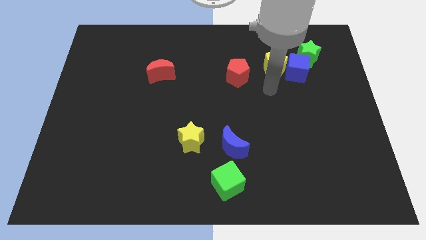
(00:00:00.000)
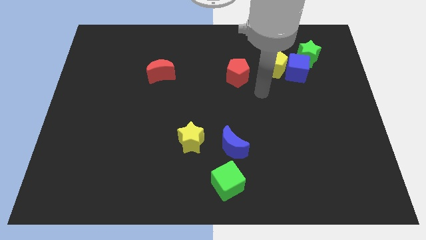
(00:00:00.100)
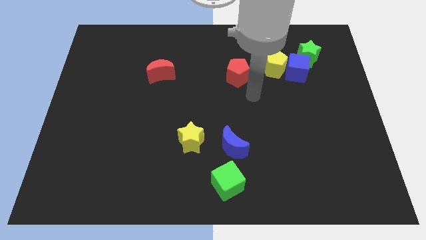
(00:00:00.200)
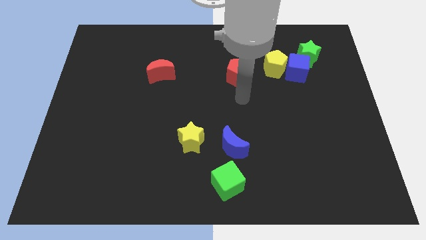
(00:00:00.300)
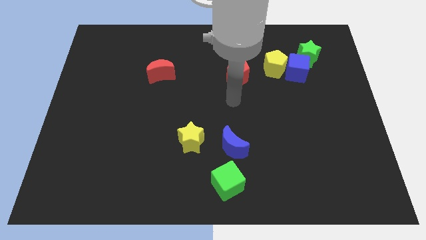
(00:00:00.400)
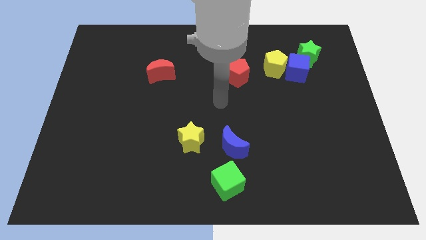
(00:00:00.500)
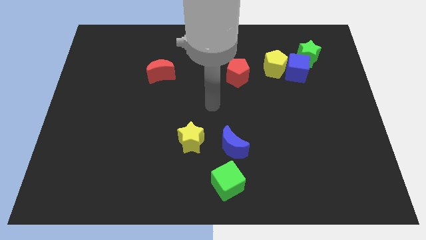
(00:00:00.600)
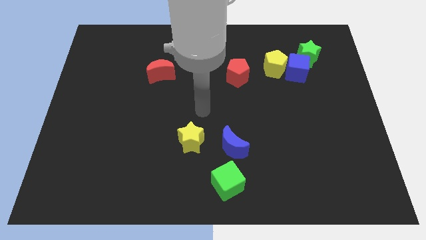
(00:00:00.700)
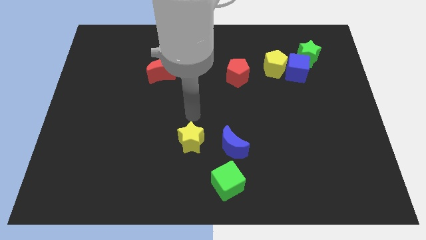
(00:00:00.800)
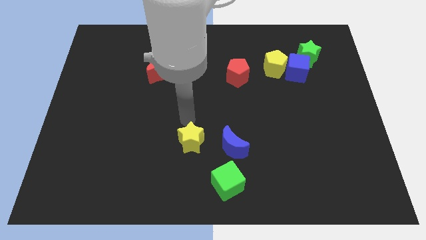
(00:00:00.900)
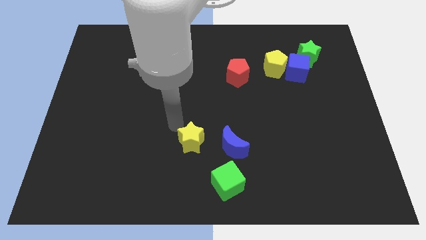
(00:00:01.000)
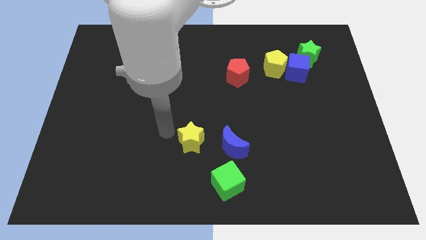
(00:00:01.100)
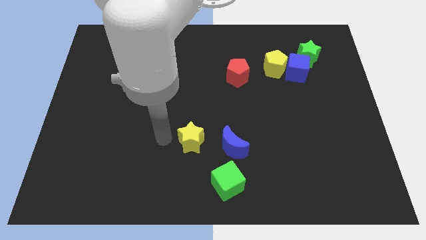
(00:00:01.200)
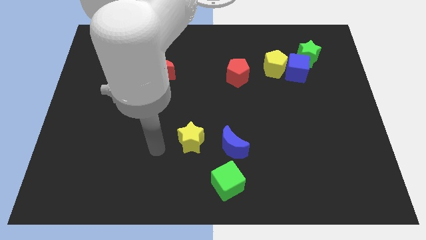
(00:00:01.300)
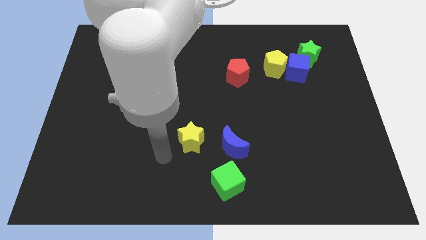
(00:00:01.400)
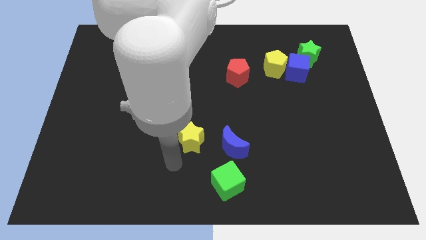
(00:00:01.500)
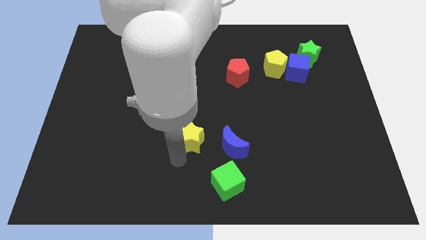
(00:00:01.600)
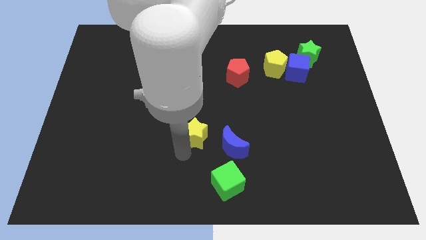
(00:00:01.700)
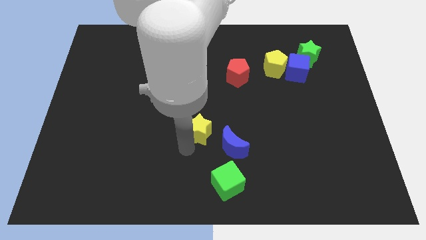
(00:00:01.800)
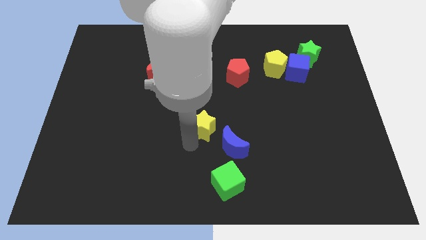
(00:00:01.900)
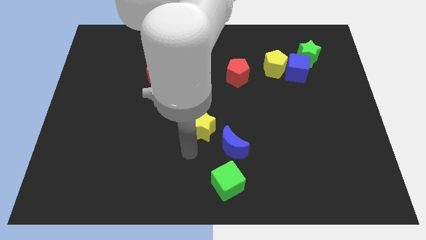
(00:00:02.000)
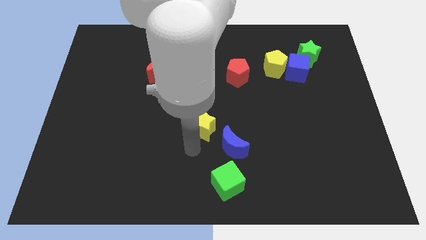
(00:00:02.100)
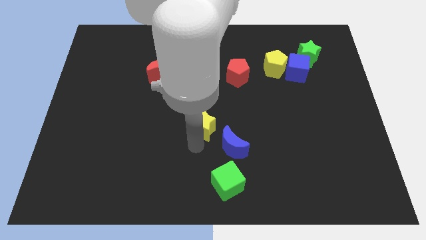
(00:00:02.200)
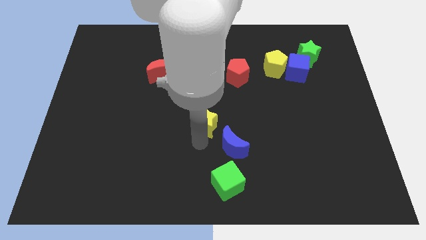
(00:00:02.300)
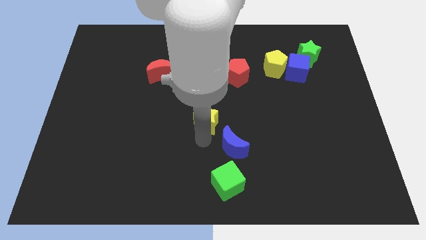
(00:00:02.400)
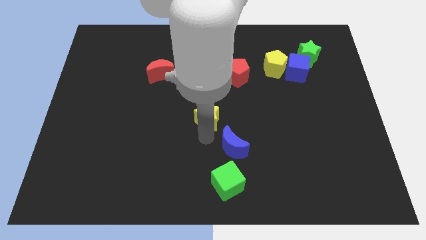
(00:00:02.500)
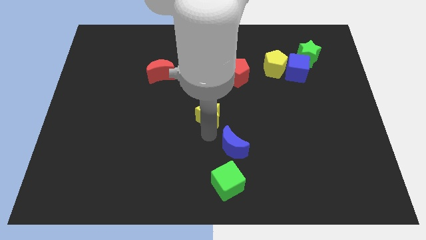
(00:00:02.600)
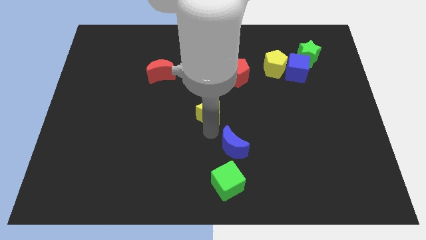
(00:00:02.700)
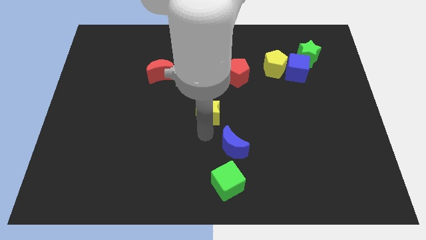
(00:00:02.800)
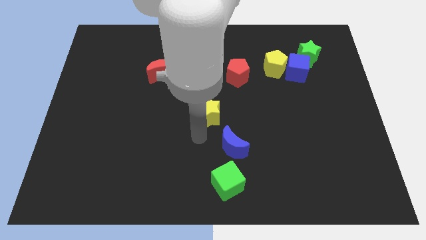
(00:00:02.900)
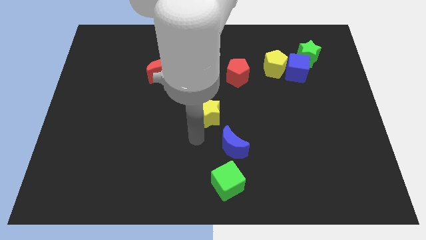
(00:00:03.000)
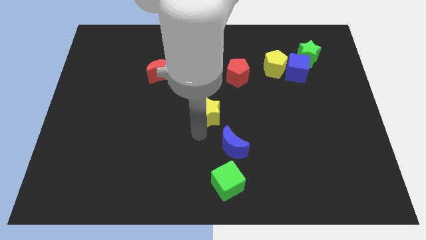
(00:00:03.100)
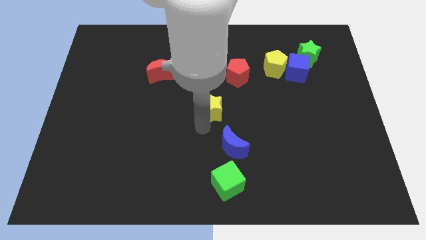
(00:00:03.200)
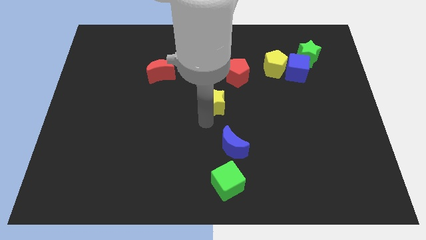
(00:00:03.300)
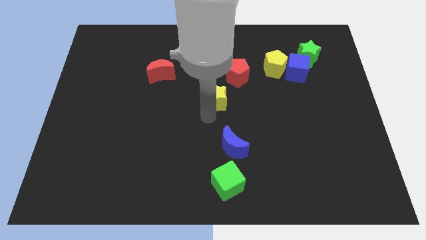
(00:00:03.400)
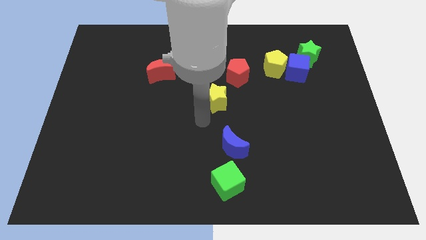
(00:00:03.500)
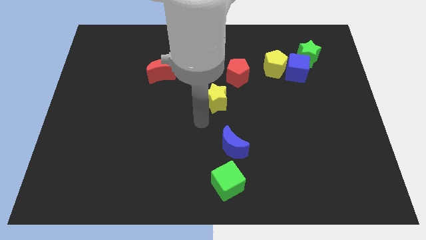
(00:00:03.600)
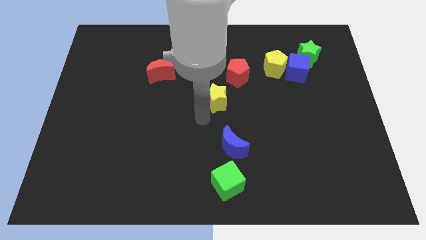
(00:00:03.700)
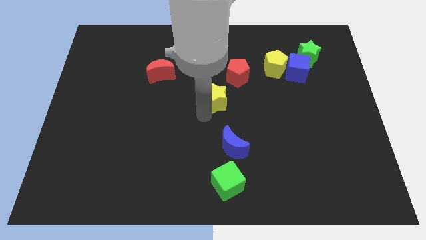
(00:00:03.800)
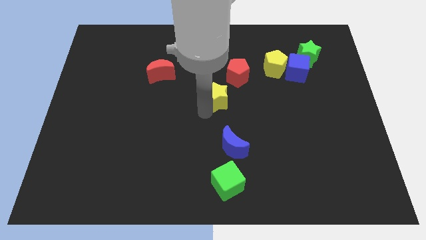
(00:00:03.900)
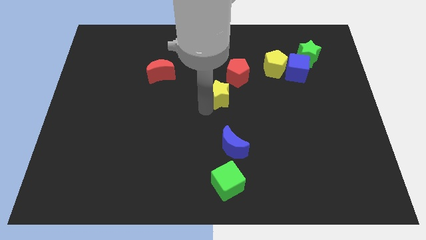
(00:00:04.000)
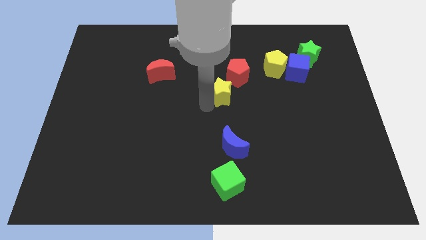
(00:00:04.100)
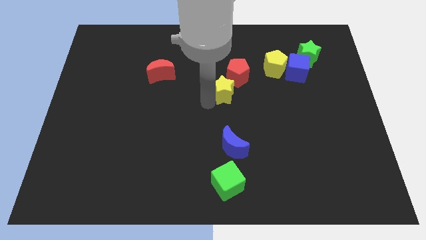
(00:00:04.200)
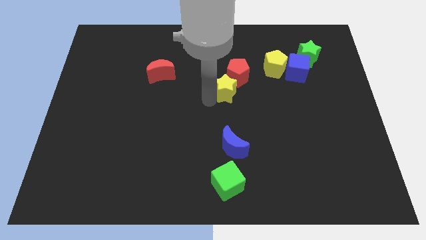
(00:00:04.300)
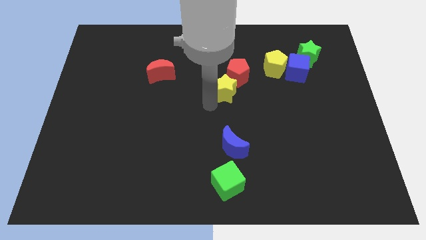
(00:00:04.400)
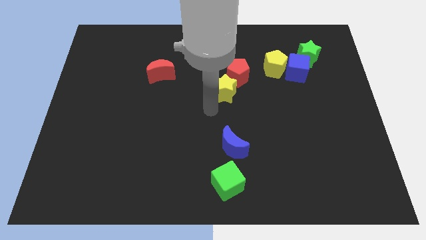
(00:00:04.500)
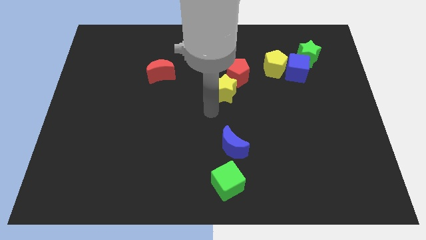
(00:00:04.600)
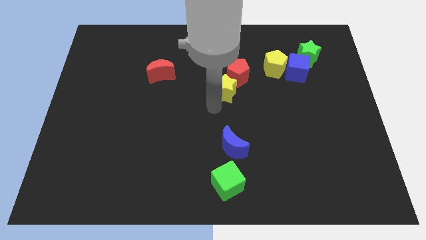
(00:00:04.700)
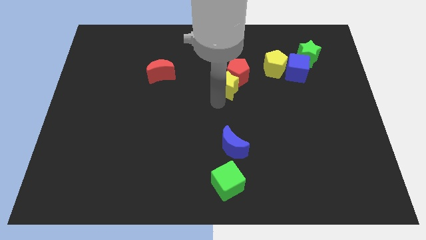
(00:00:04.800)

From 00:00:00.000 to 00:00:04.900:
put the yellow star close to the red pentagon

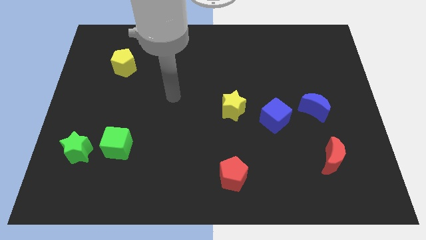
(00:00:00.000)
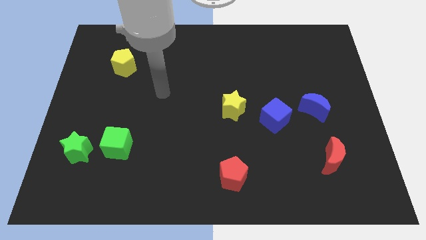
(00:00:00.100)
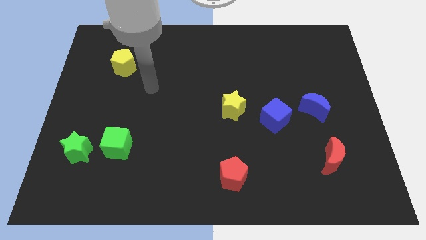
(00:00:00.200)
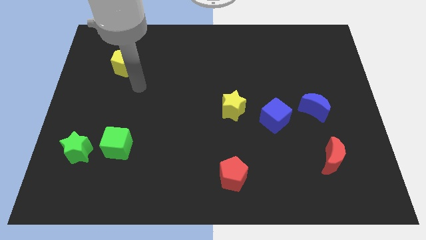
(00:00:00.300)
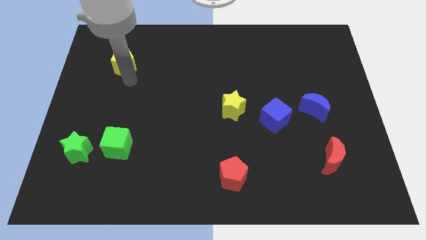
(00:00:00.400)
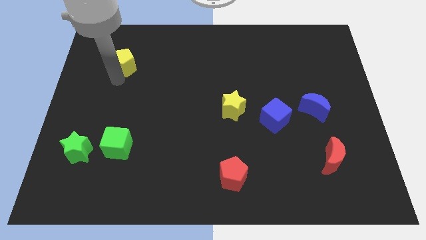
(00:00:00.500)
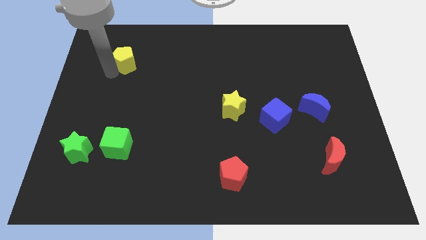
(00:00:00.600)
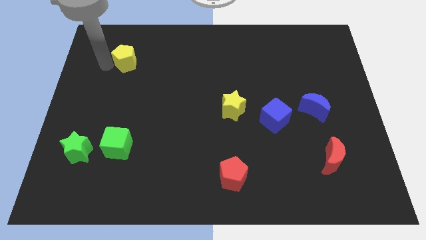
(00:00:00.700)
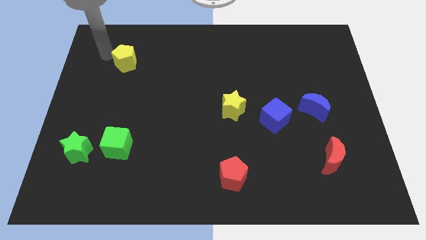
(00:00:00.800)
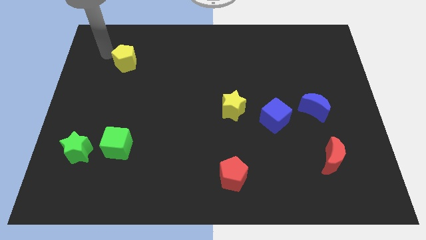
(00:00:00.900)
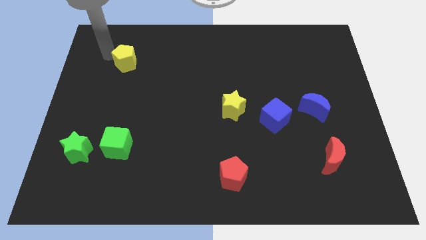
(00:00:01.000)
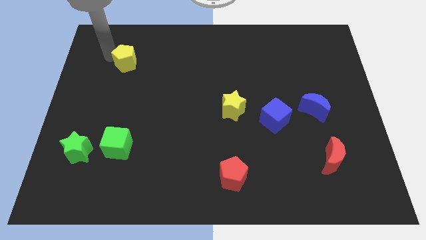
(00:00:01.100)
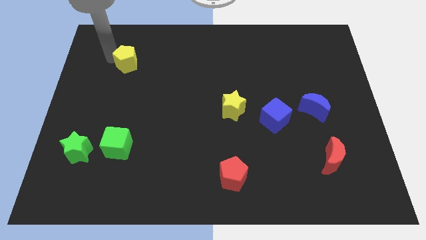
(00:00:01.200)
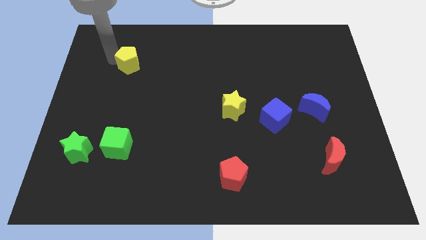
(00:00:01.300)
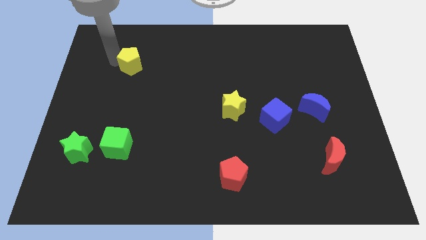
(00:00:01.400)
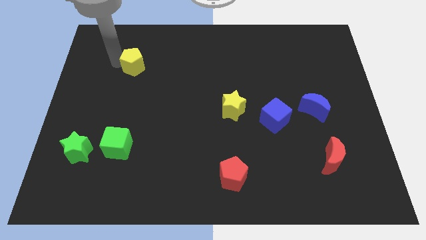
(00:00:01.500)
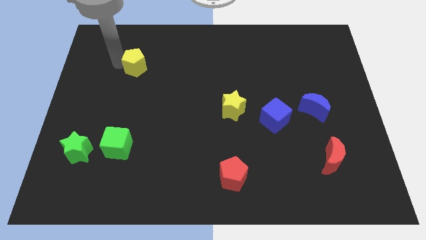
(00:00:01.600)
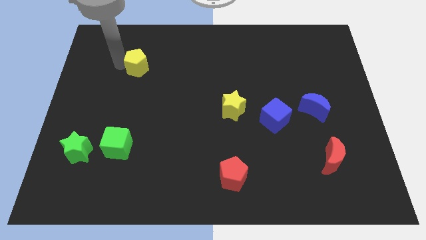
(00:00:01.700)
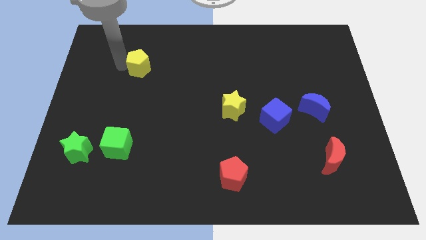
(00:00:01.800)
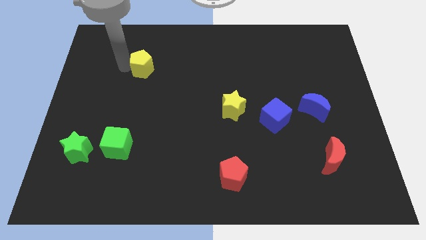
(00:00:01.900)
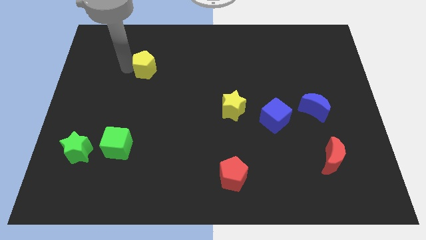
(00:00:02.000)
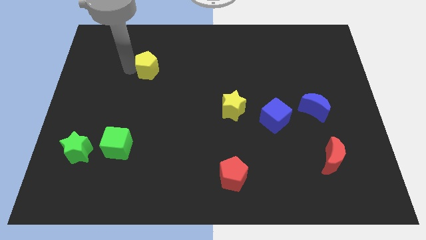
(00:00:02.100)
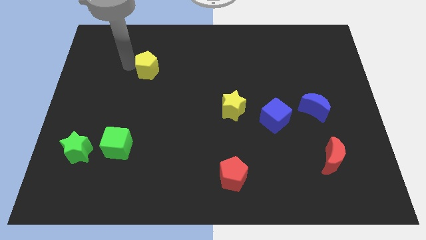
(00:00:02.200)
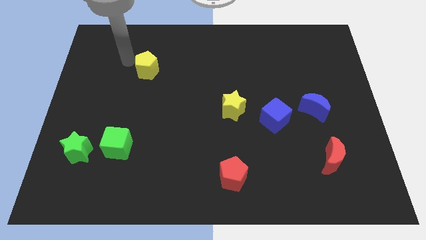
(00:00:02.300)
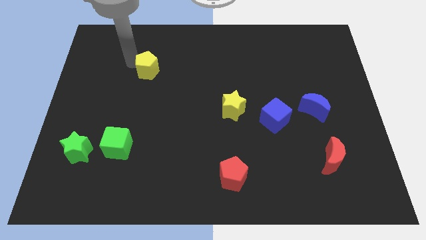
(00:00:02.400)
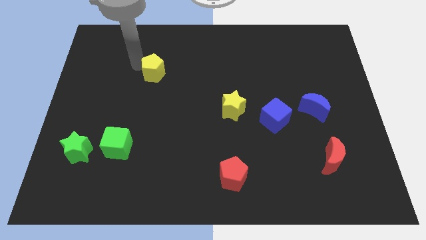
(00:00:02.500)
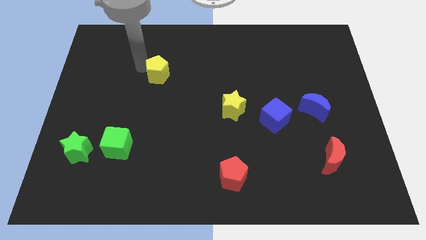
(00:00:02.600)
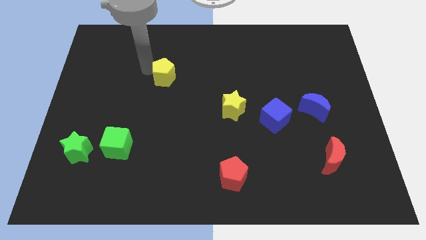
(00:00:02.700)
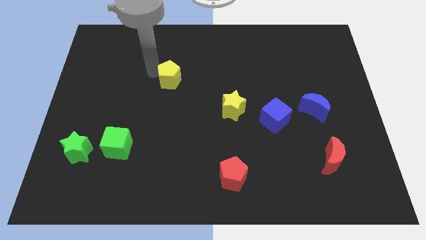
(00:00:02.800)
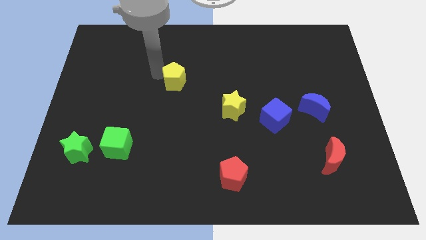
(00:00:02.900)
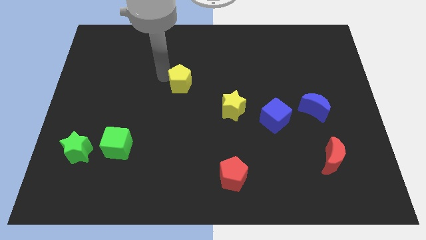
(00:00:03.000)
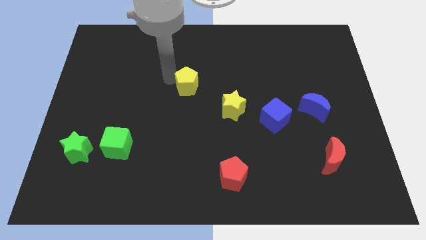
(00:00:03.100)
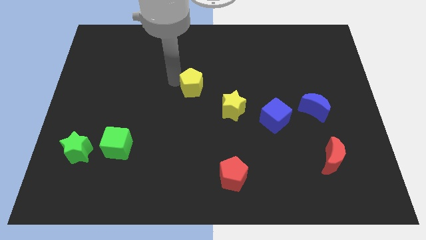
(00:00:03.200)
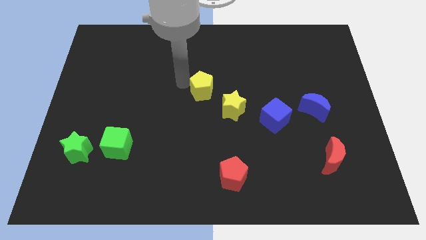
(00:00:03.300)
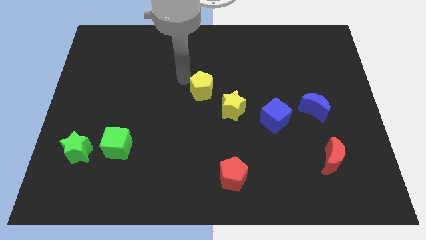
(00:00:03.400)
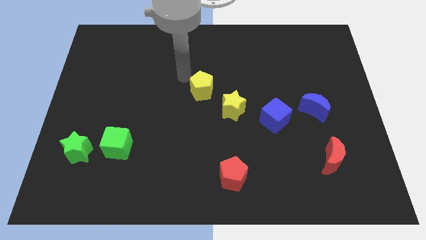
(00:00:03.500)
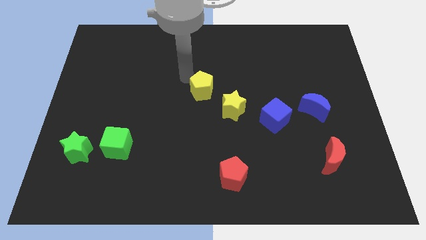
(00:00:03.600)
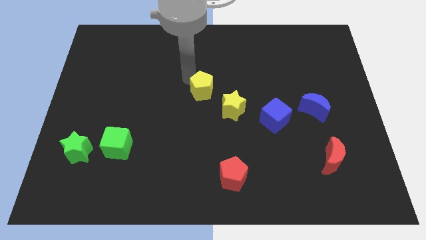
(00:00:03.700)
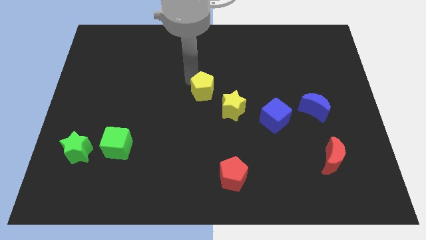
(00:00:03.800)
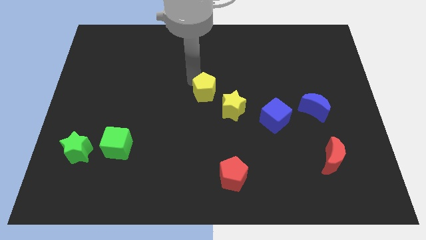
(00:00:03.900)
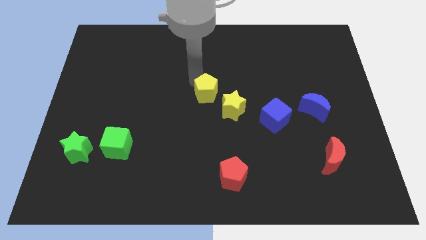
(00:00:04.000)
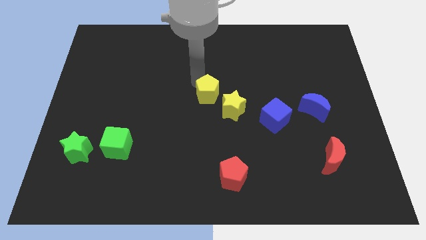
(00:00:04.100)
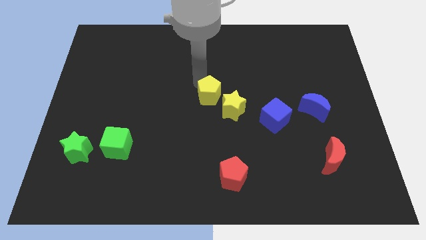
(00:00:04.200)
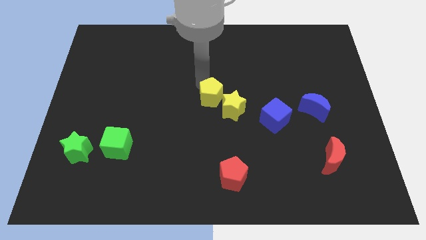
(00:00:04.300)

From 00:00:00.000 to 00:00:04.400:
slide the yellow pentagon towards the yellow star
